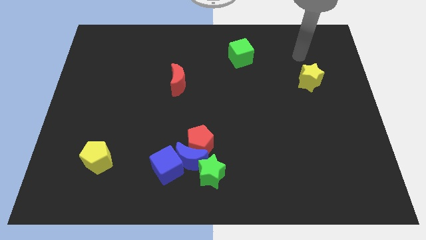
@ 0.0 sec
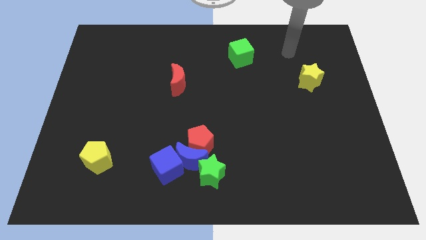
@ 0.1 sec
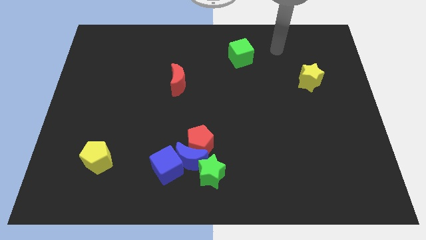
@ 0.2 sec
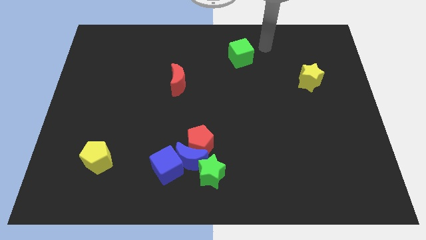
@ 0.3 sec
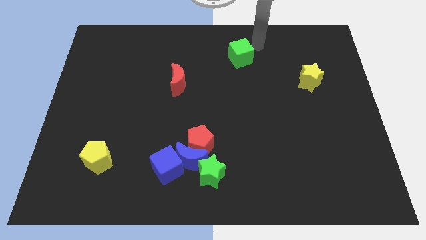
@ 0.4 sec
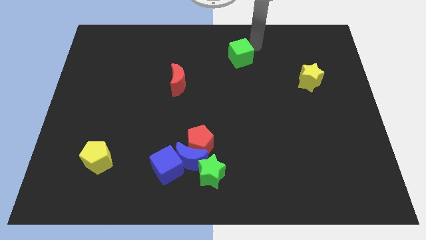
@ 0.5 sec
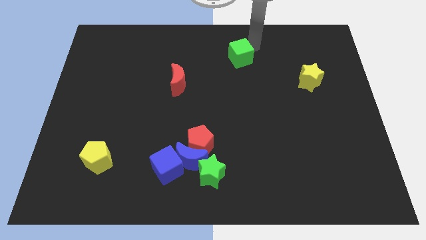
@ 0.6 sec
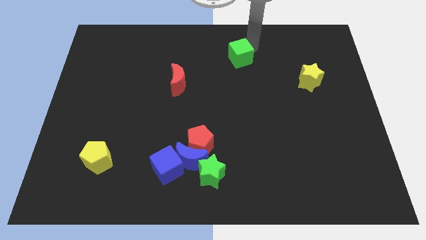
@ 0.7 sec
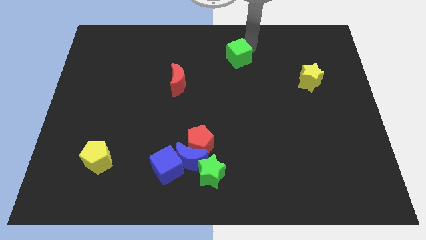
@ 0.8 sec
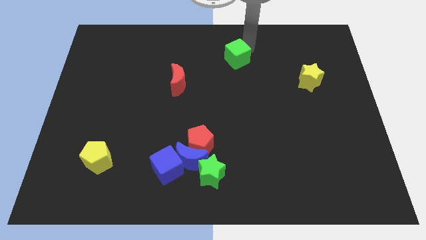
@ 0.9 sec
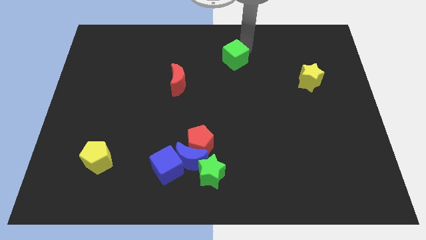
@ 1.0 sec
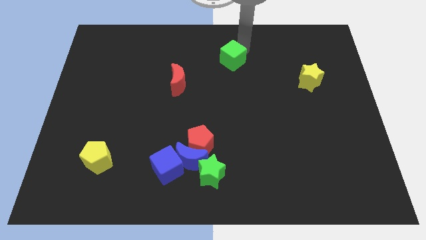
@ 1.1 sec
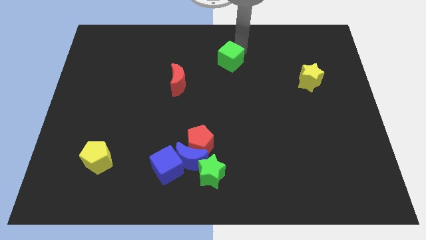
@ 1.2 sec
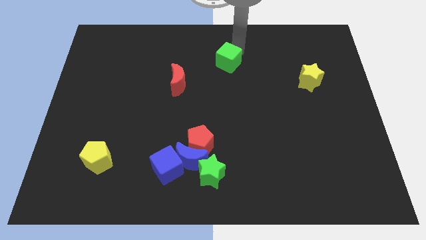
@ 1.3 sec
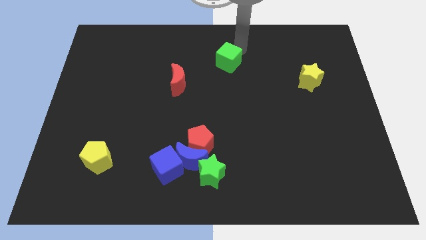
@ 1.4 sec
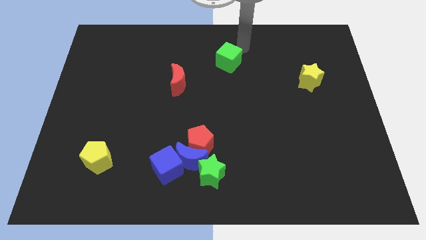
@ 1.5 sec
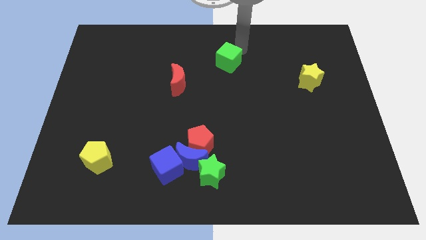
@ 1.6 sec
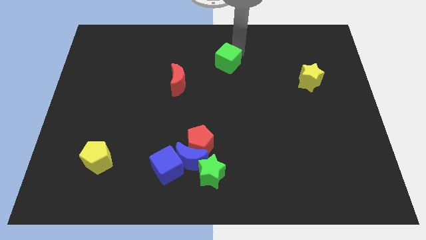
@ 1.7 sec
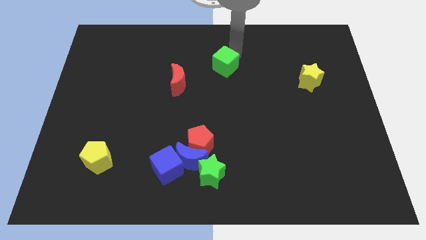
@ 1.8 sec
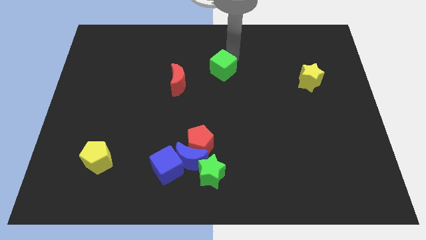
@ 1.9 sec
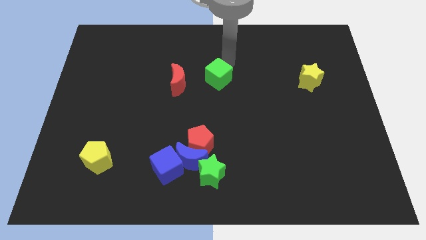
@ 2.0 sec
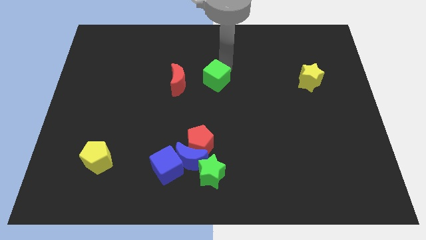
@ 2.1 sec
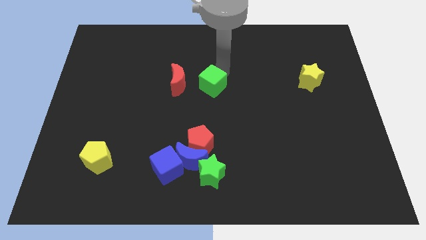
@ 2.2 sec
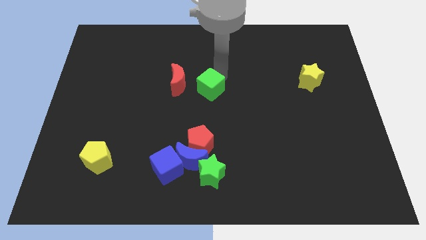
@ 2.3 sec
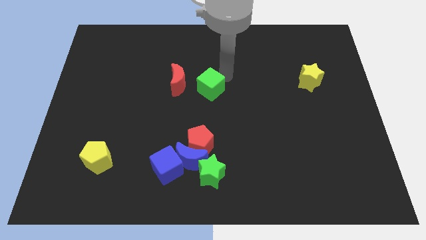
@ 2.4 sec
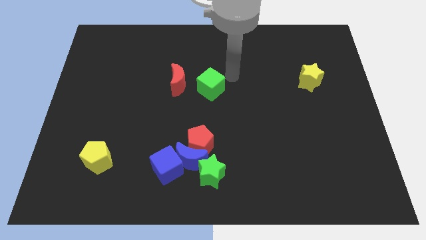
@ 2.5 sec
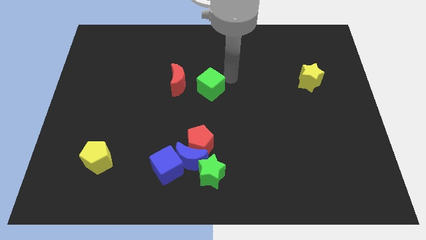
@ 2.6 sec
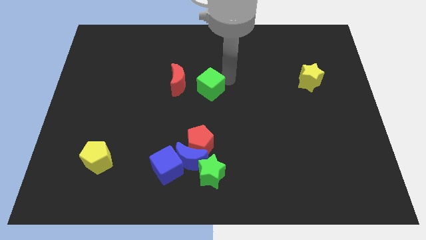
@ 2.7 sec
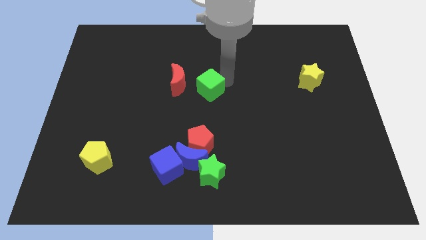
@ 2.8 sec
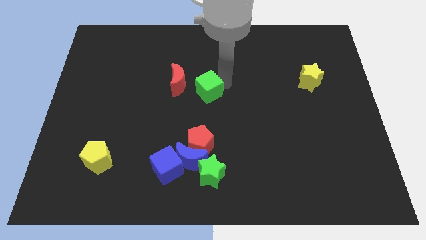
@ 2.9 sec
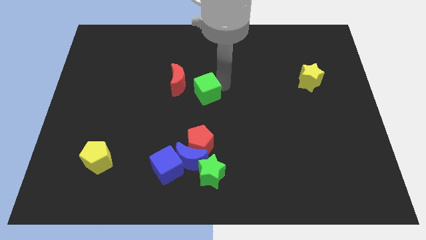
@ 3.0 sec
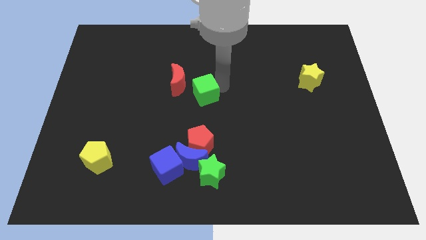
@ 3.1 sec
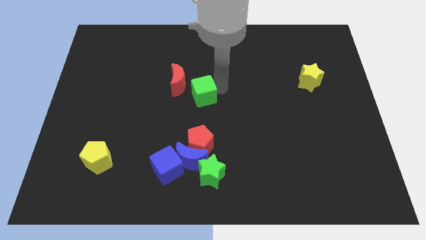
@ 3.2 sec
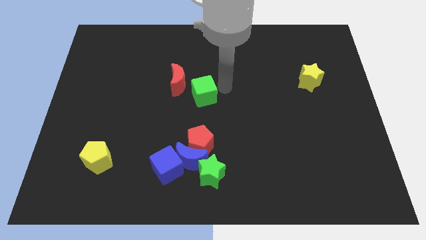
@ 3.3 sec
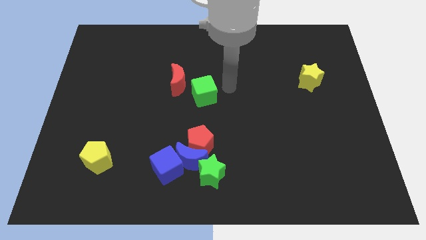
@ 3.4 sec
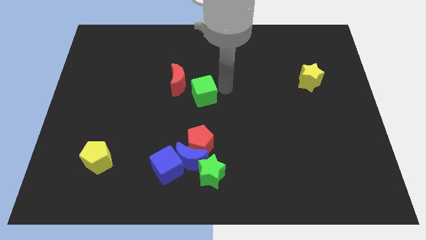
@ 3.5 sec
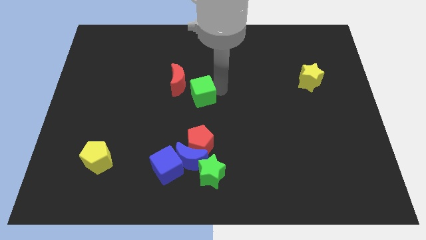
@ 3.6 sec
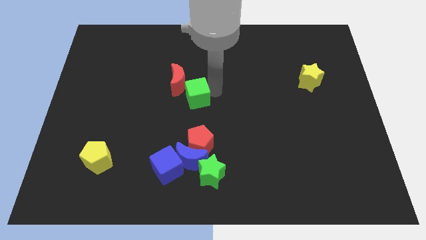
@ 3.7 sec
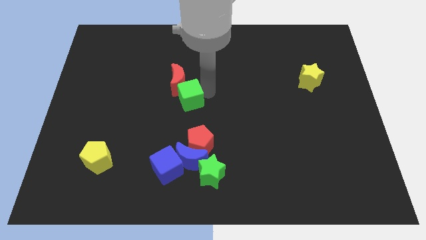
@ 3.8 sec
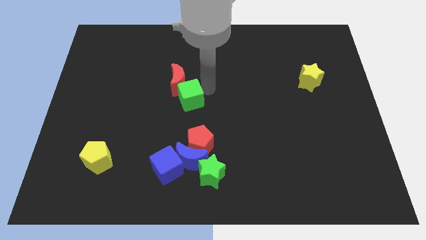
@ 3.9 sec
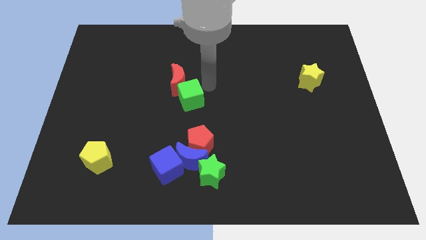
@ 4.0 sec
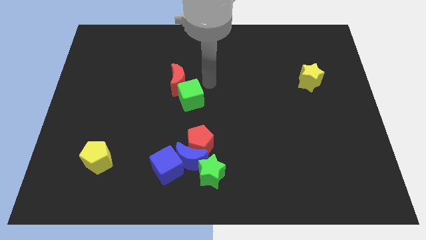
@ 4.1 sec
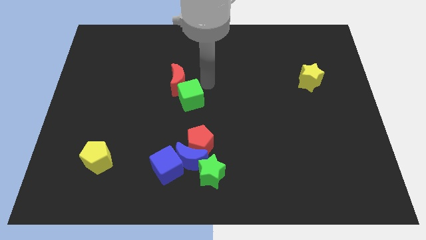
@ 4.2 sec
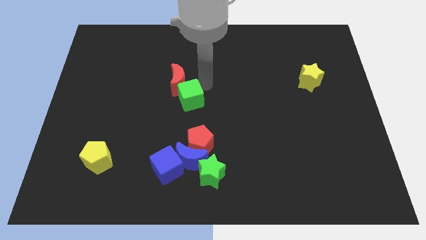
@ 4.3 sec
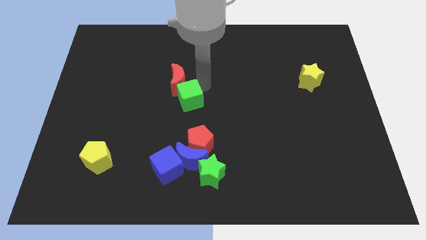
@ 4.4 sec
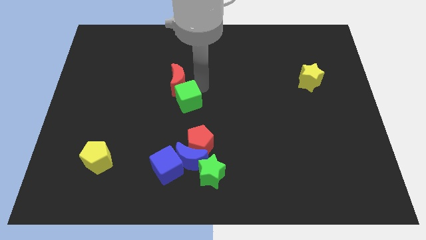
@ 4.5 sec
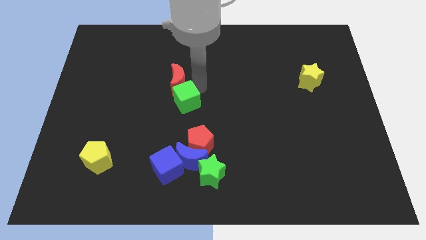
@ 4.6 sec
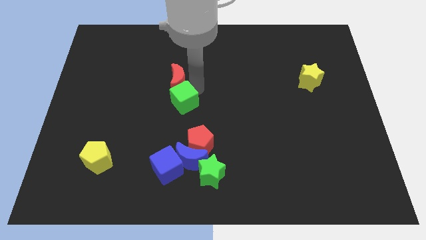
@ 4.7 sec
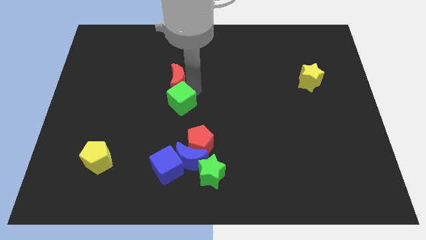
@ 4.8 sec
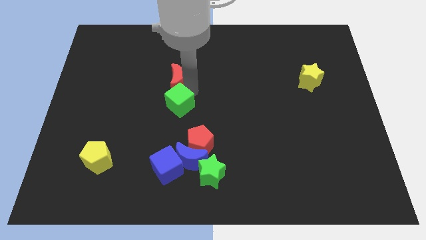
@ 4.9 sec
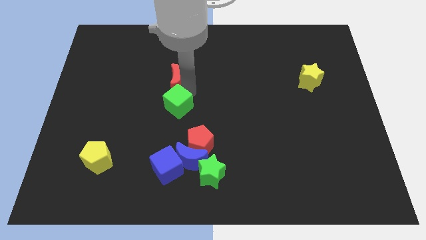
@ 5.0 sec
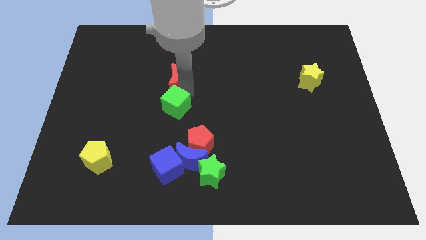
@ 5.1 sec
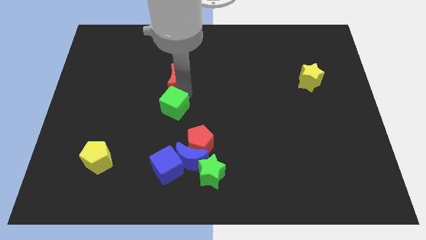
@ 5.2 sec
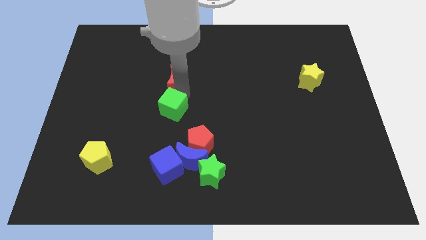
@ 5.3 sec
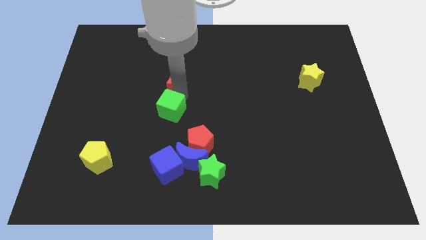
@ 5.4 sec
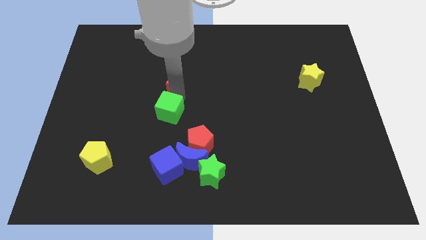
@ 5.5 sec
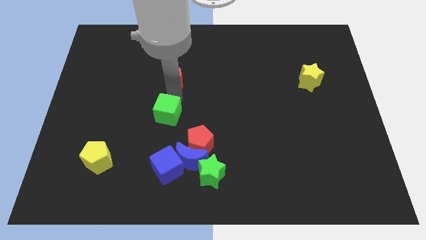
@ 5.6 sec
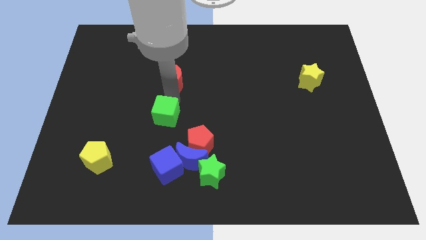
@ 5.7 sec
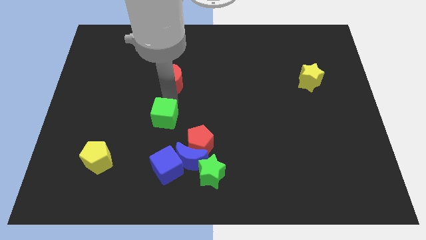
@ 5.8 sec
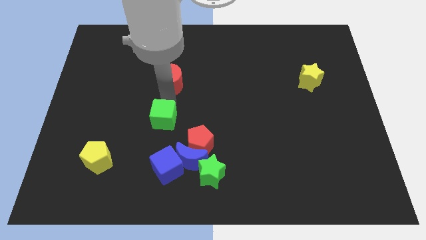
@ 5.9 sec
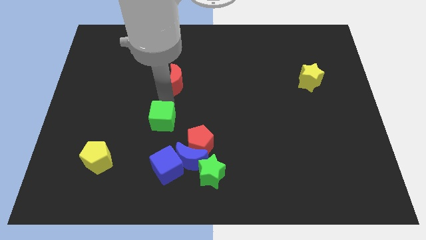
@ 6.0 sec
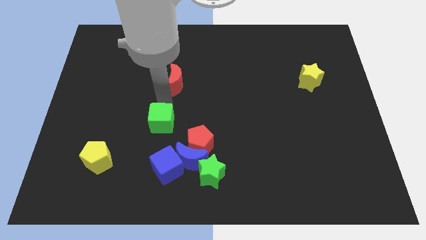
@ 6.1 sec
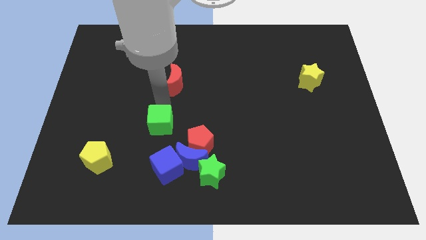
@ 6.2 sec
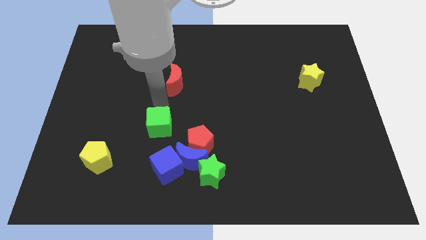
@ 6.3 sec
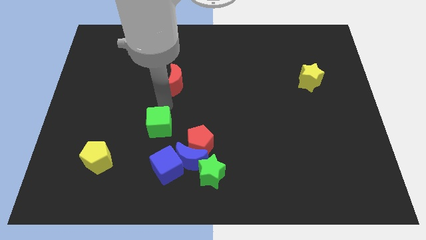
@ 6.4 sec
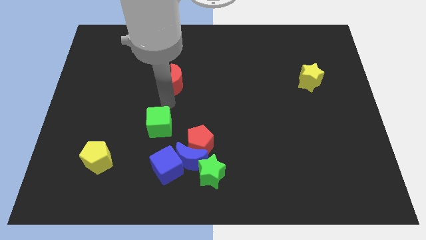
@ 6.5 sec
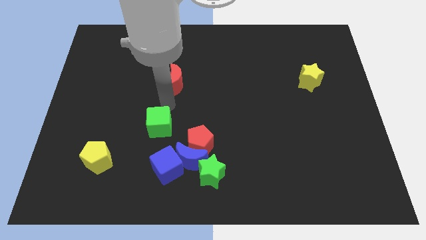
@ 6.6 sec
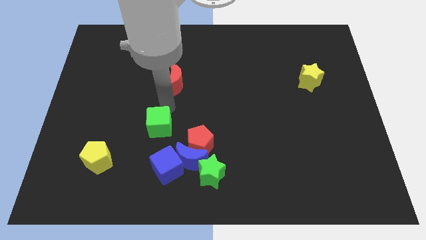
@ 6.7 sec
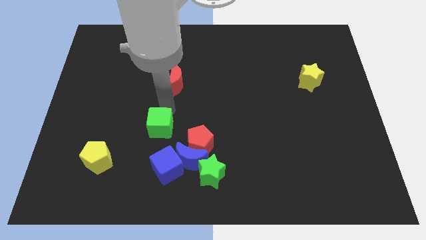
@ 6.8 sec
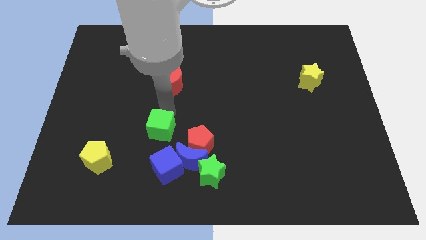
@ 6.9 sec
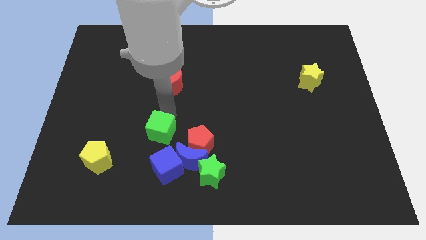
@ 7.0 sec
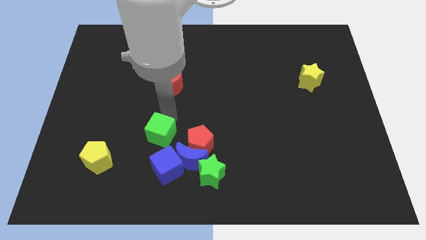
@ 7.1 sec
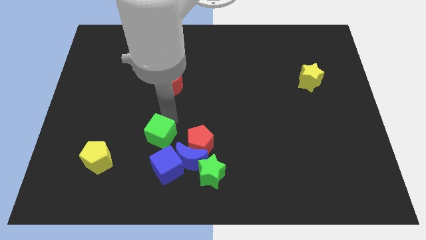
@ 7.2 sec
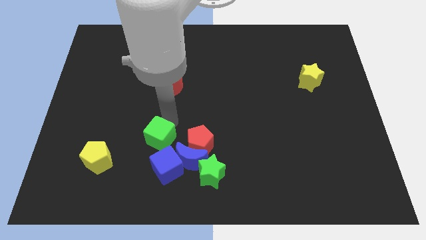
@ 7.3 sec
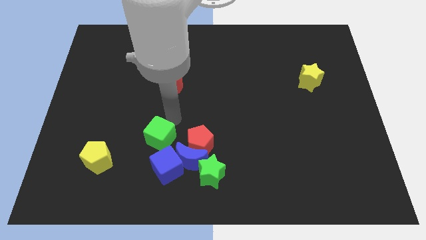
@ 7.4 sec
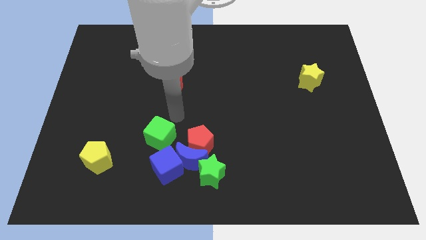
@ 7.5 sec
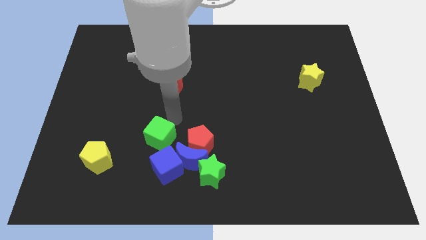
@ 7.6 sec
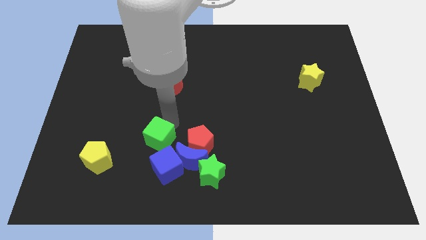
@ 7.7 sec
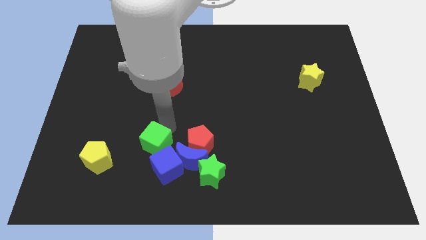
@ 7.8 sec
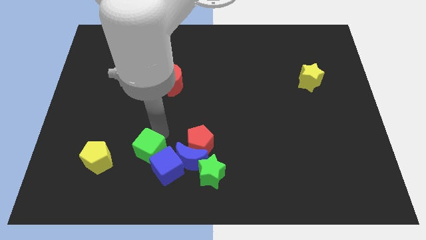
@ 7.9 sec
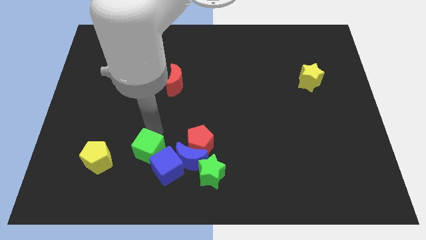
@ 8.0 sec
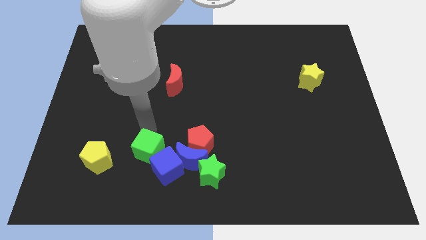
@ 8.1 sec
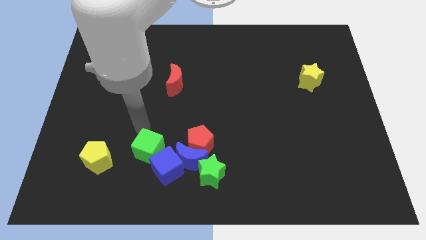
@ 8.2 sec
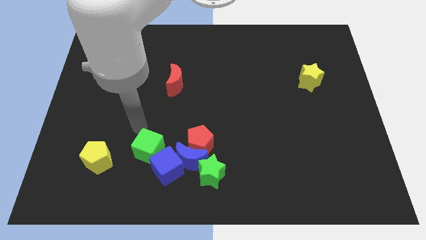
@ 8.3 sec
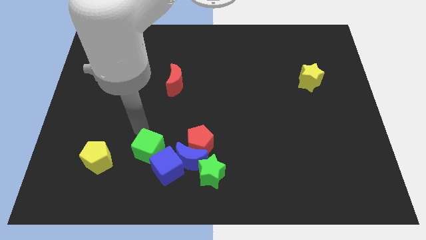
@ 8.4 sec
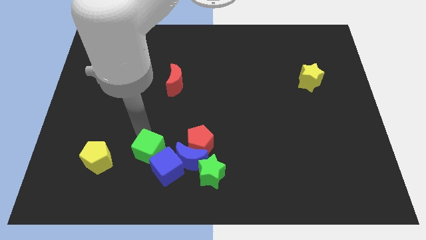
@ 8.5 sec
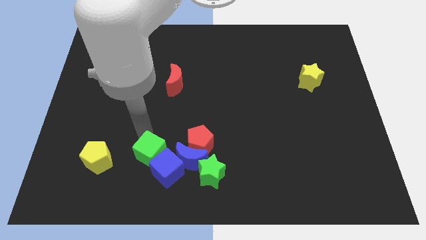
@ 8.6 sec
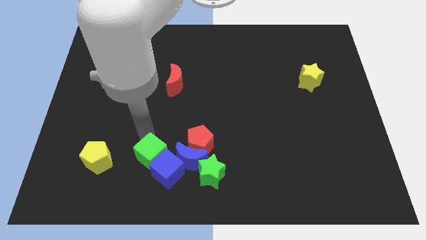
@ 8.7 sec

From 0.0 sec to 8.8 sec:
move the green cube left of the green star
